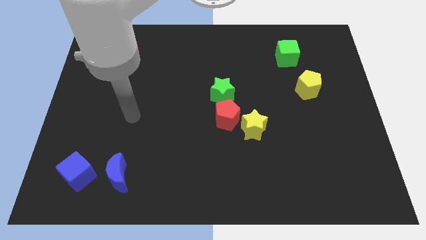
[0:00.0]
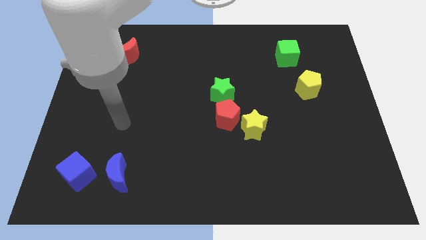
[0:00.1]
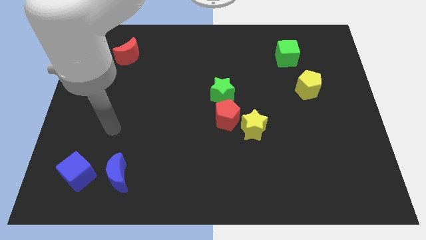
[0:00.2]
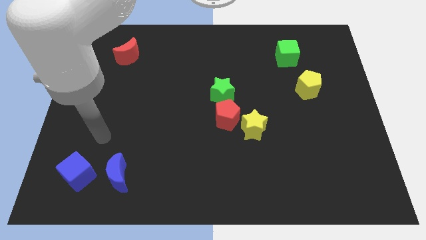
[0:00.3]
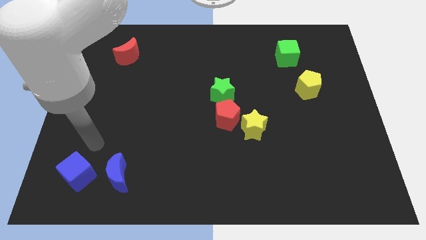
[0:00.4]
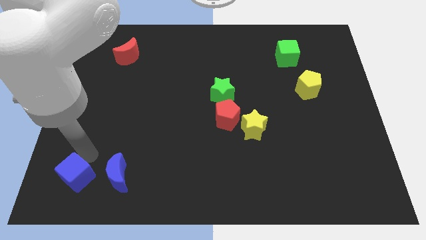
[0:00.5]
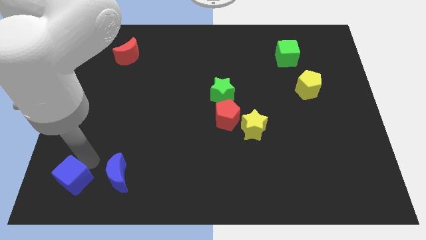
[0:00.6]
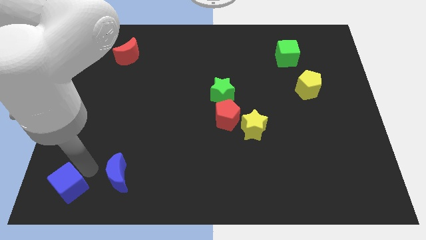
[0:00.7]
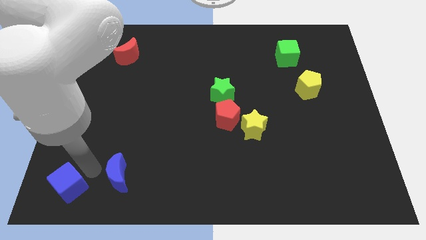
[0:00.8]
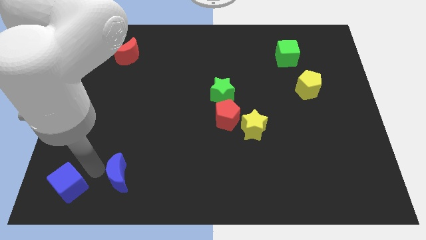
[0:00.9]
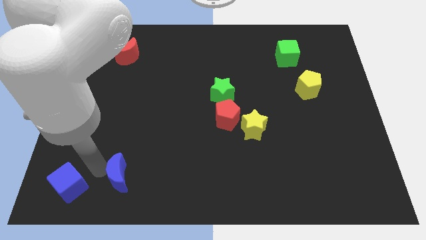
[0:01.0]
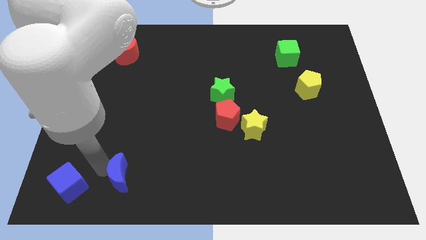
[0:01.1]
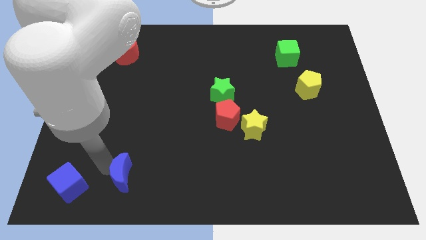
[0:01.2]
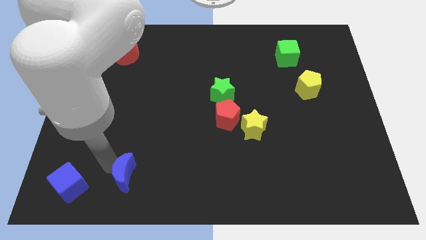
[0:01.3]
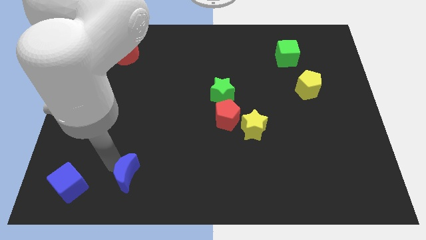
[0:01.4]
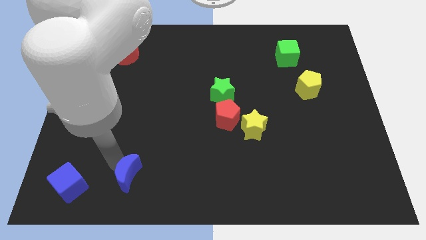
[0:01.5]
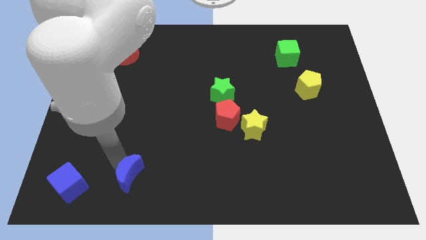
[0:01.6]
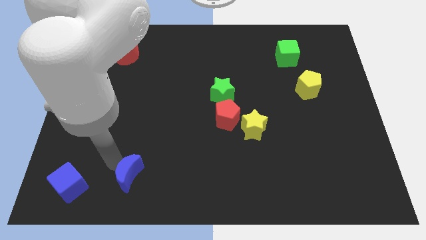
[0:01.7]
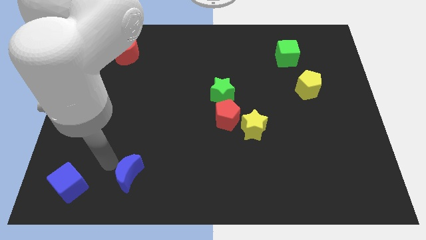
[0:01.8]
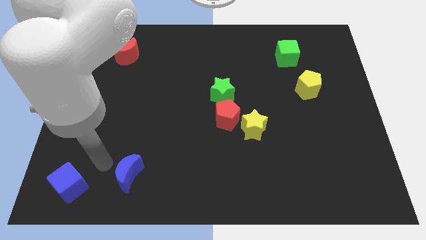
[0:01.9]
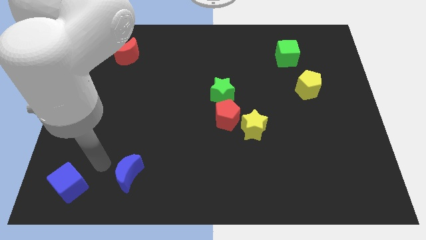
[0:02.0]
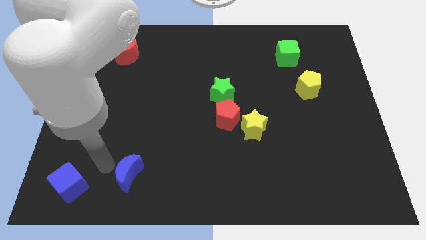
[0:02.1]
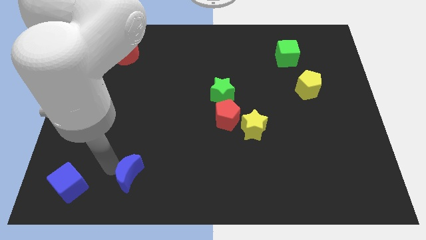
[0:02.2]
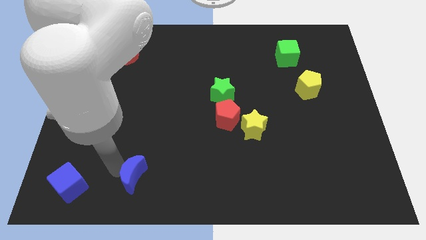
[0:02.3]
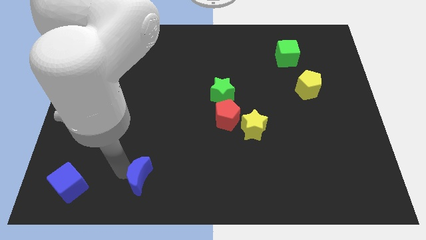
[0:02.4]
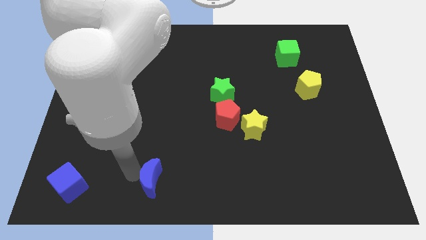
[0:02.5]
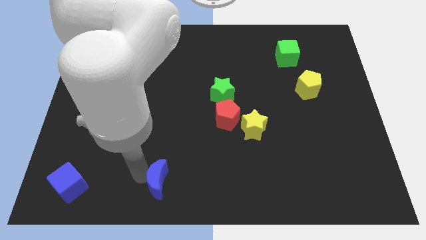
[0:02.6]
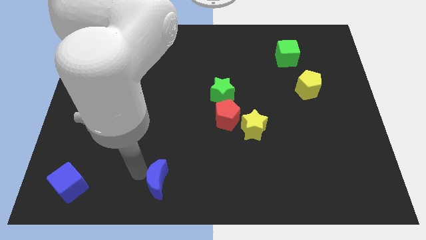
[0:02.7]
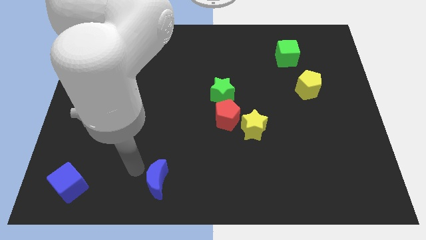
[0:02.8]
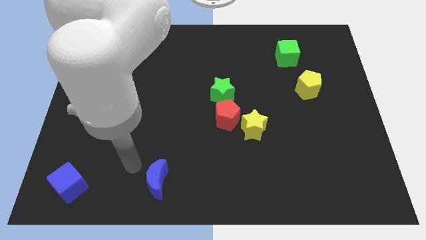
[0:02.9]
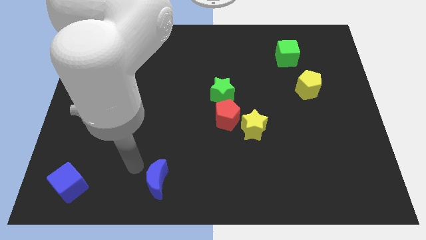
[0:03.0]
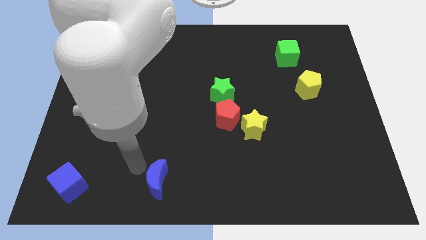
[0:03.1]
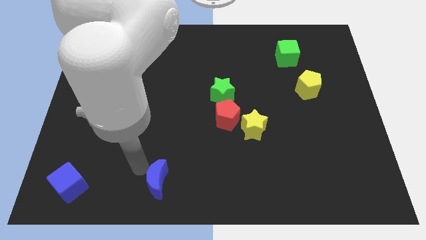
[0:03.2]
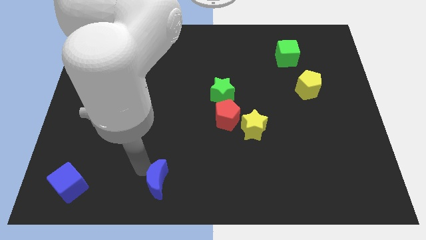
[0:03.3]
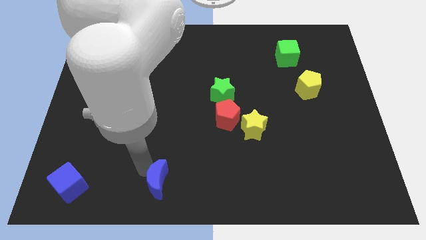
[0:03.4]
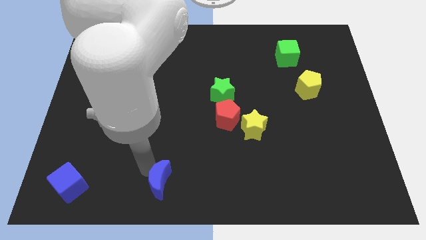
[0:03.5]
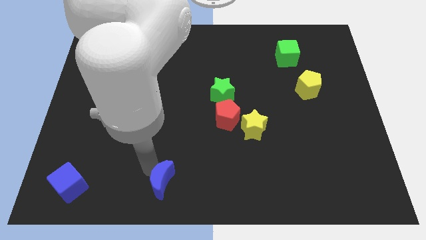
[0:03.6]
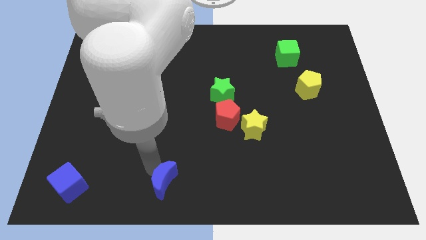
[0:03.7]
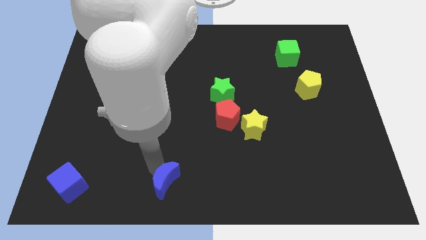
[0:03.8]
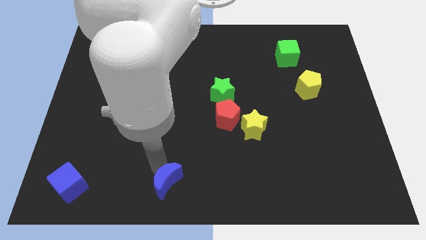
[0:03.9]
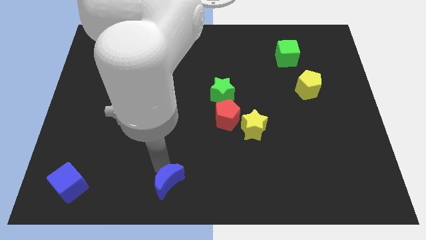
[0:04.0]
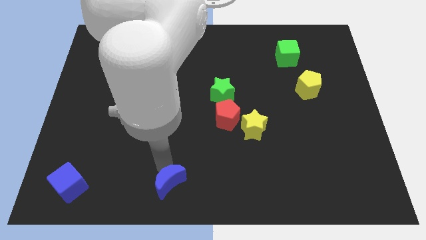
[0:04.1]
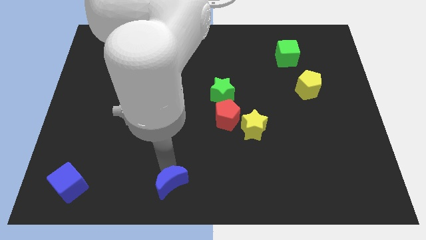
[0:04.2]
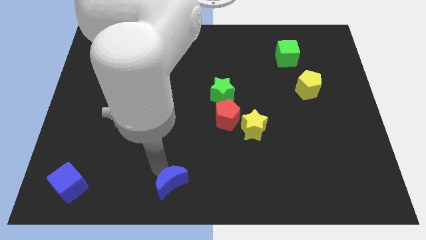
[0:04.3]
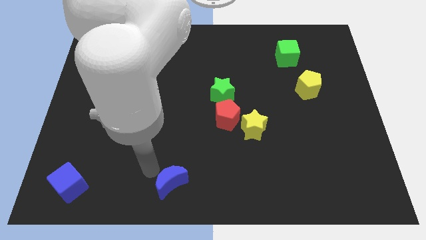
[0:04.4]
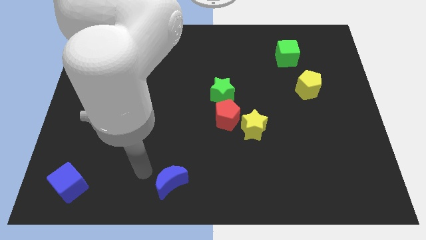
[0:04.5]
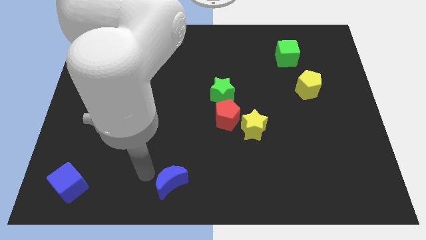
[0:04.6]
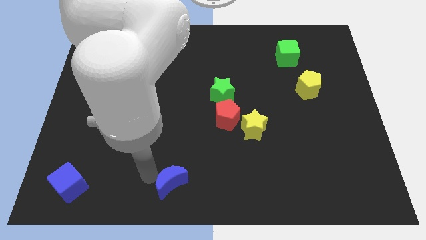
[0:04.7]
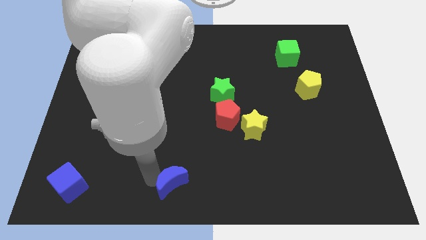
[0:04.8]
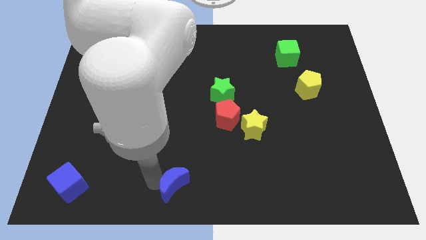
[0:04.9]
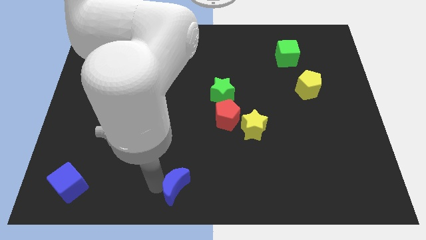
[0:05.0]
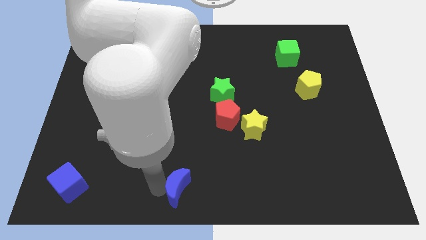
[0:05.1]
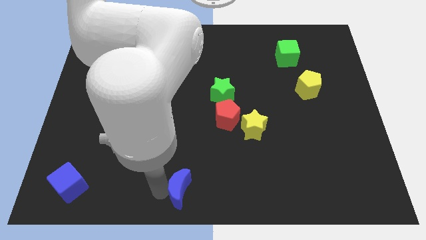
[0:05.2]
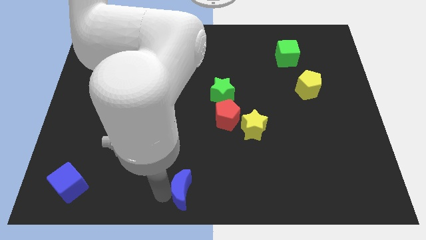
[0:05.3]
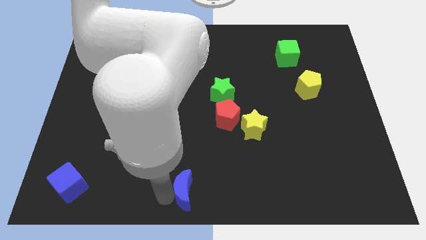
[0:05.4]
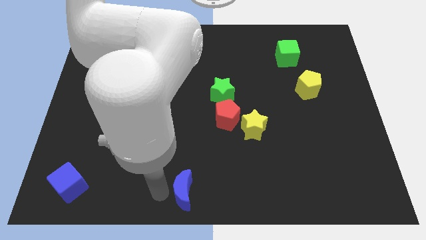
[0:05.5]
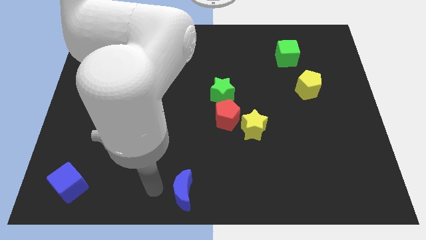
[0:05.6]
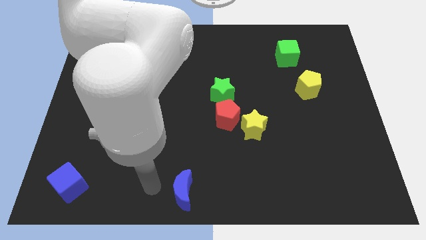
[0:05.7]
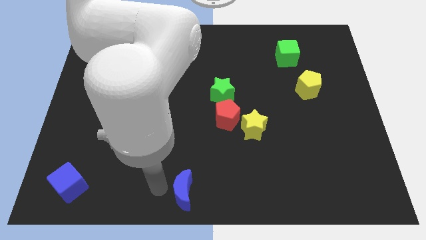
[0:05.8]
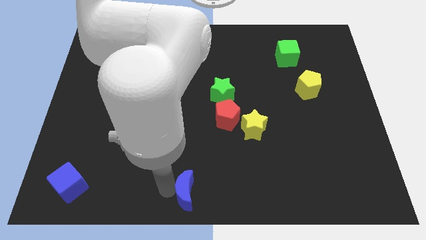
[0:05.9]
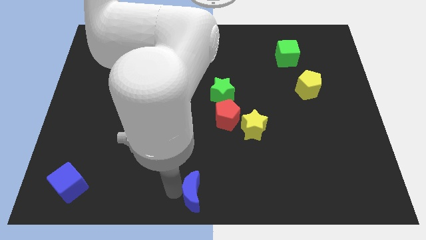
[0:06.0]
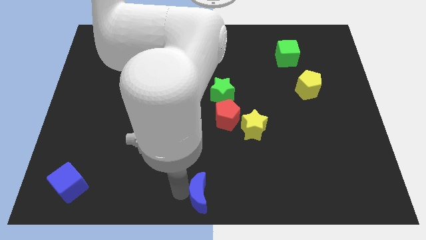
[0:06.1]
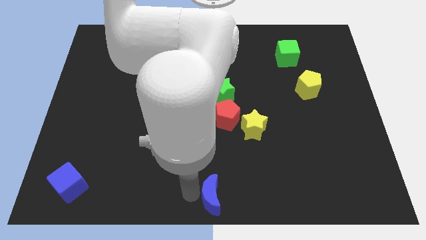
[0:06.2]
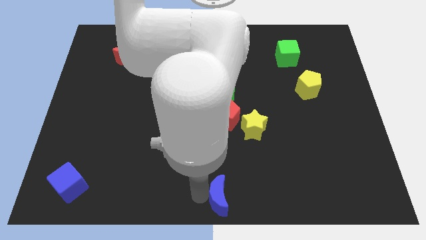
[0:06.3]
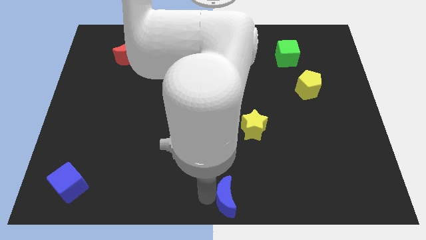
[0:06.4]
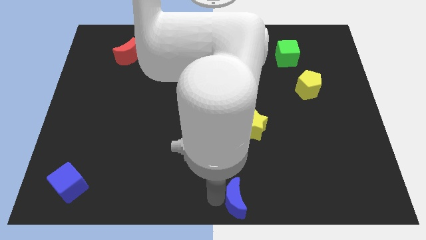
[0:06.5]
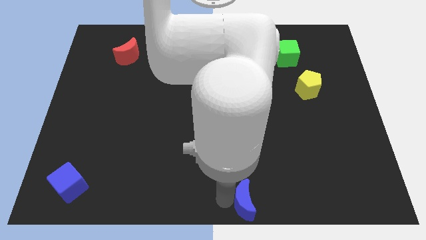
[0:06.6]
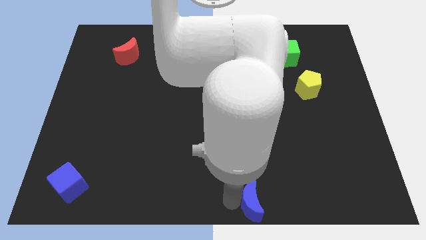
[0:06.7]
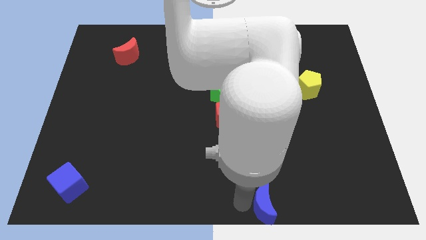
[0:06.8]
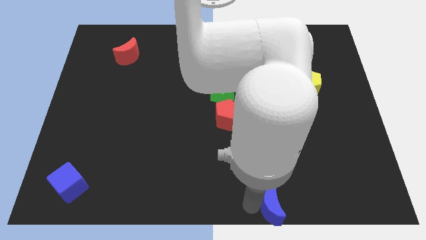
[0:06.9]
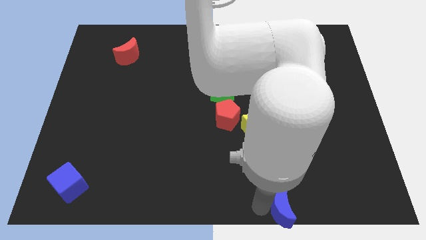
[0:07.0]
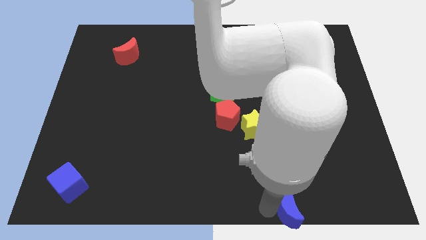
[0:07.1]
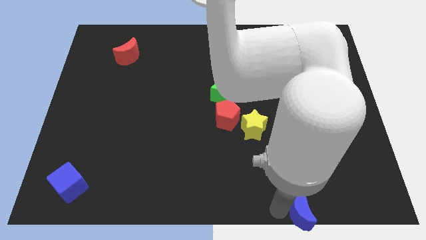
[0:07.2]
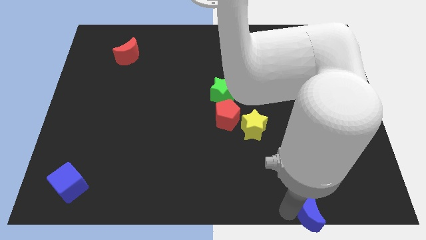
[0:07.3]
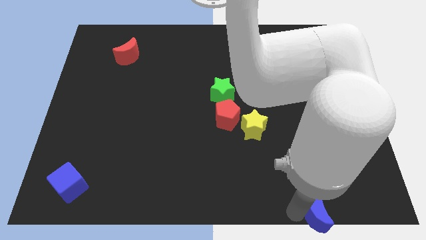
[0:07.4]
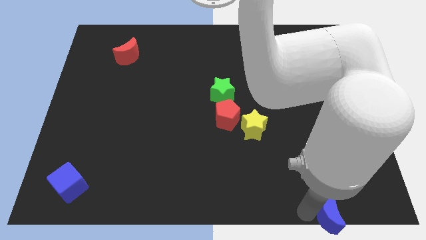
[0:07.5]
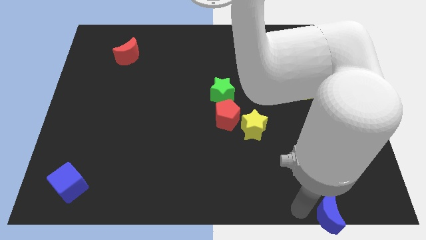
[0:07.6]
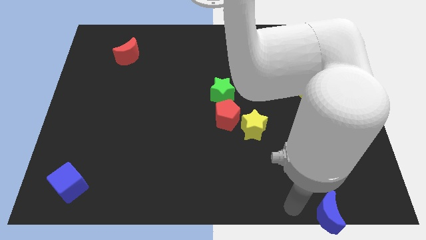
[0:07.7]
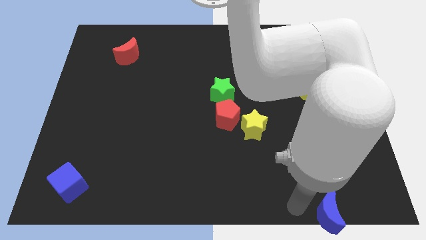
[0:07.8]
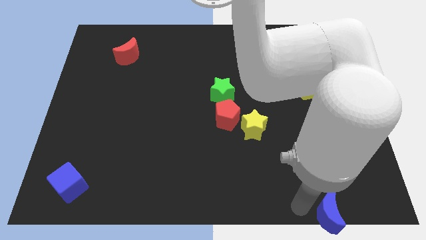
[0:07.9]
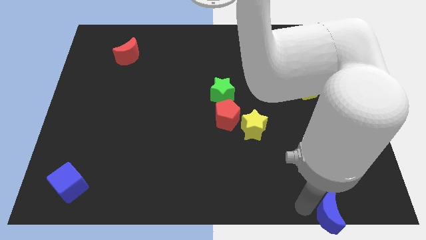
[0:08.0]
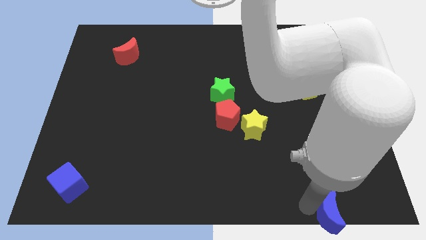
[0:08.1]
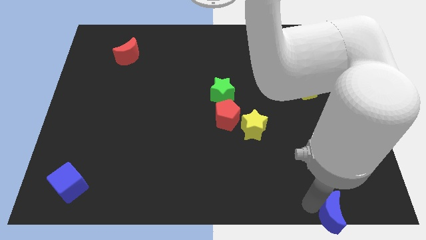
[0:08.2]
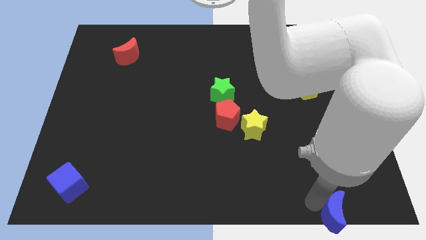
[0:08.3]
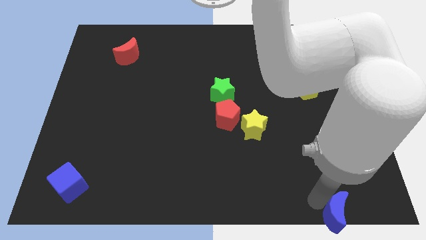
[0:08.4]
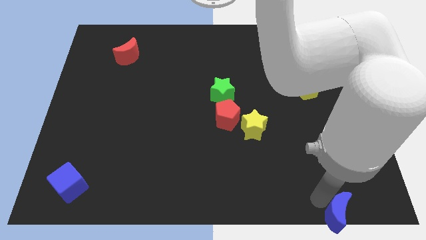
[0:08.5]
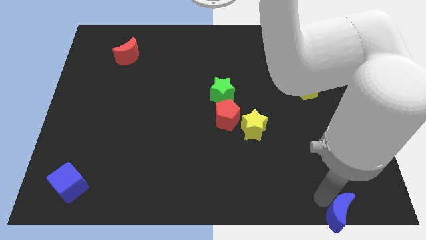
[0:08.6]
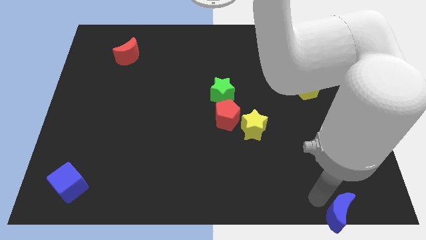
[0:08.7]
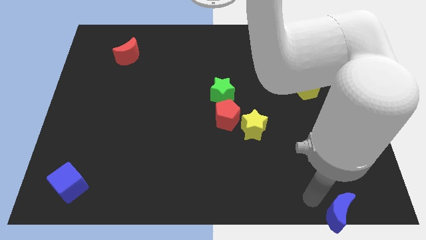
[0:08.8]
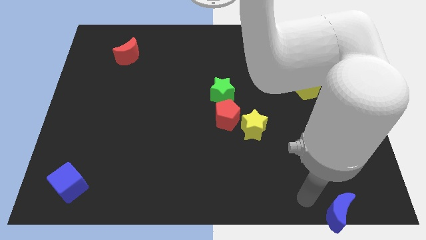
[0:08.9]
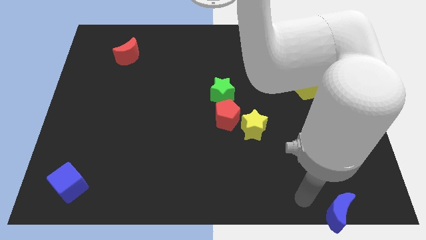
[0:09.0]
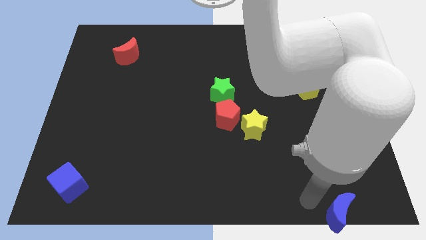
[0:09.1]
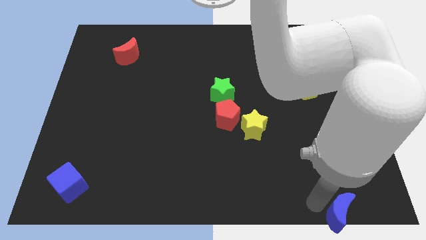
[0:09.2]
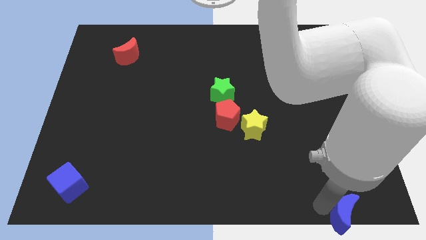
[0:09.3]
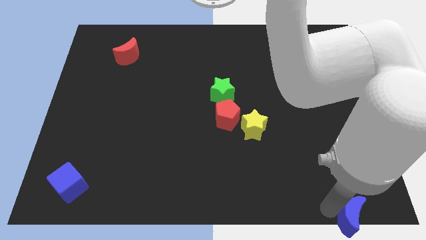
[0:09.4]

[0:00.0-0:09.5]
push the blue moon to the bottom right
